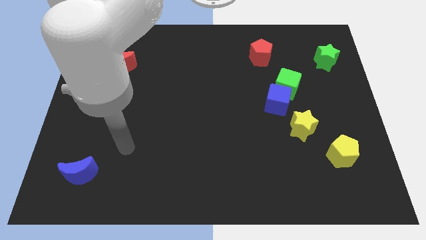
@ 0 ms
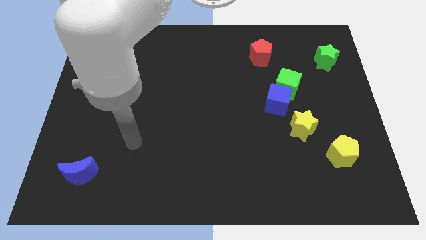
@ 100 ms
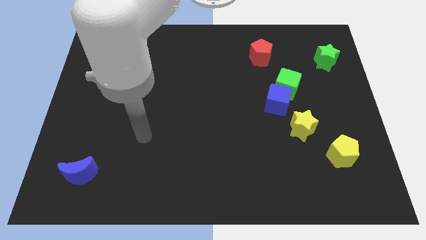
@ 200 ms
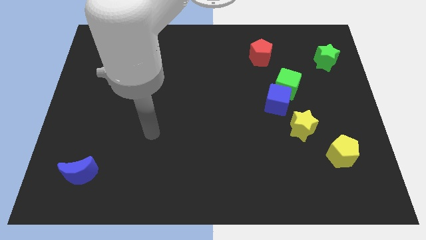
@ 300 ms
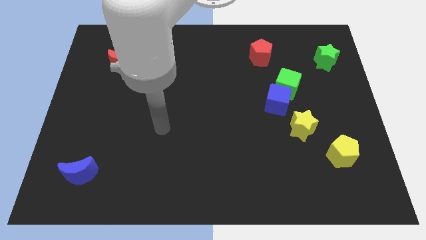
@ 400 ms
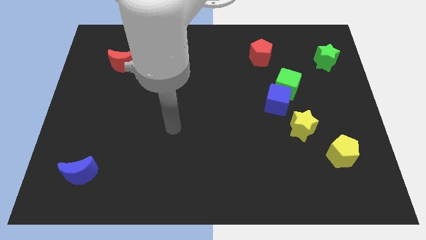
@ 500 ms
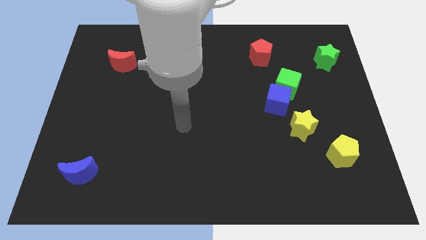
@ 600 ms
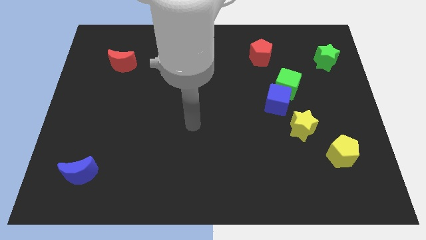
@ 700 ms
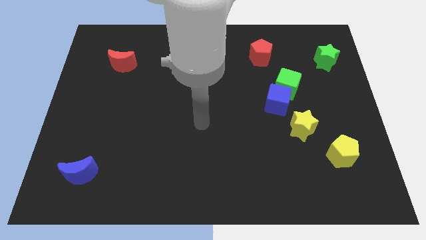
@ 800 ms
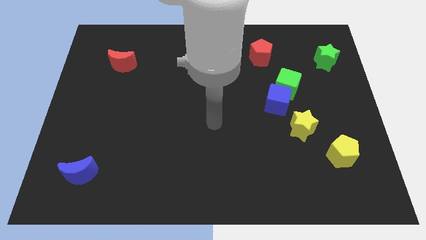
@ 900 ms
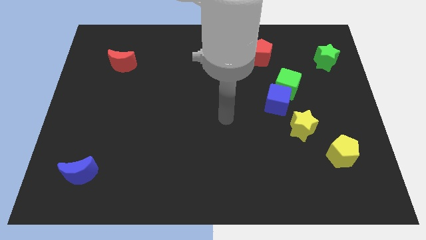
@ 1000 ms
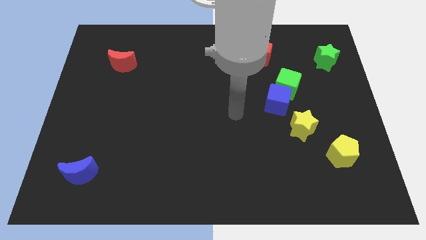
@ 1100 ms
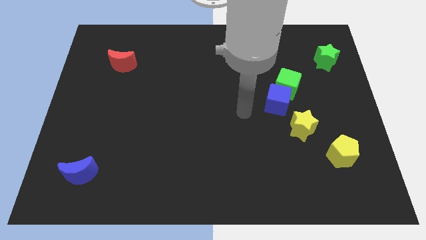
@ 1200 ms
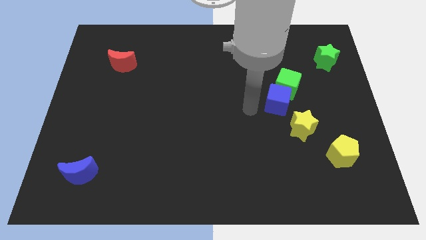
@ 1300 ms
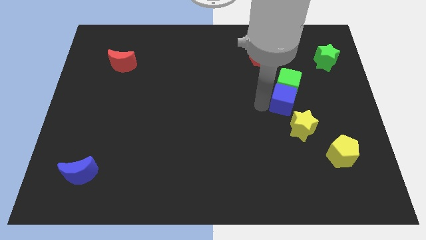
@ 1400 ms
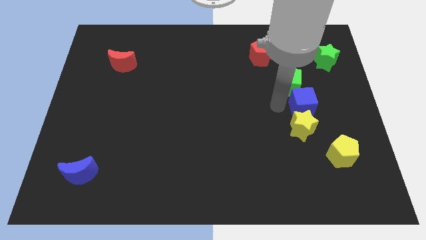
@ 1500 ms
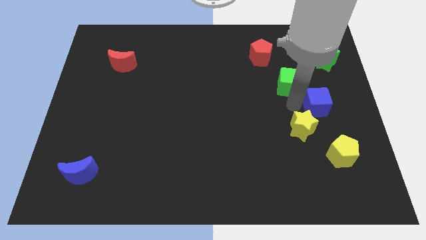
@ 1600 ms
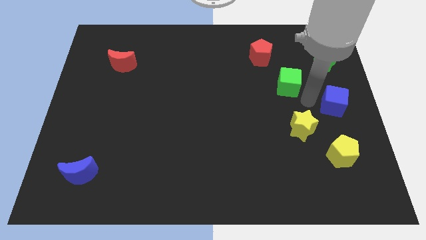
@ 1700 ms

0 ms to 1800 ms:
separate the green cube from the blue cube

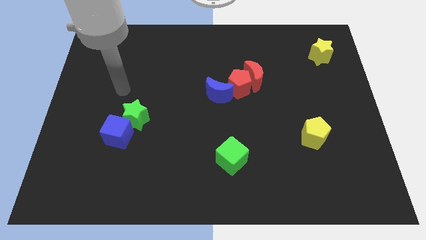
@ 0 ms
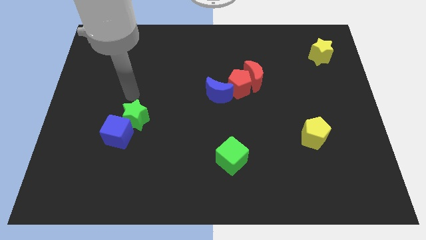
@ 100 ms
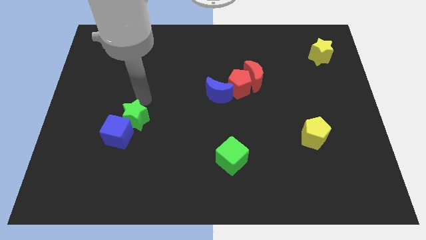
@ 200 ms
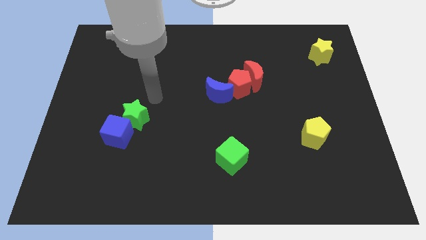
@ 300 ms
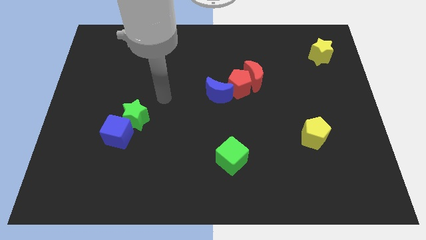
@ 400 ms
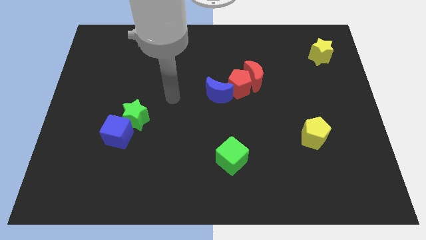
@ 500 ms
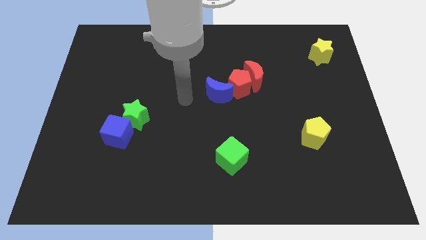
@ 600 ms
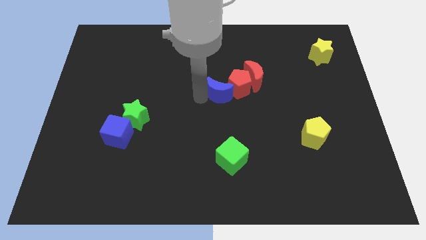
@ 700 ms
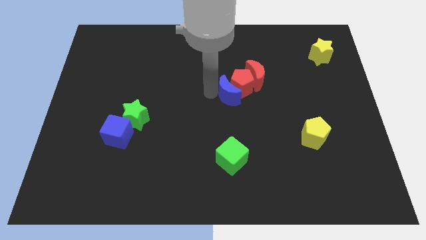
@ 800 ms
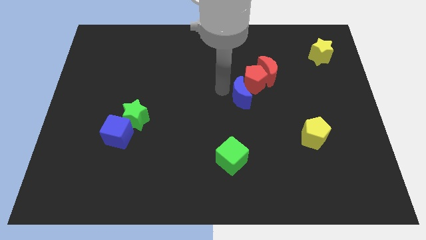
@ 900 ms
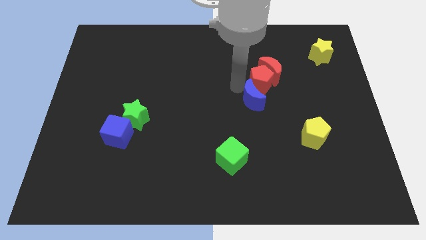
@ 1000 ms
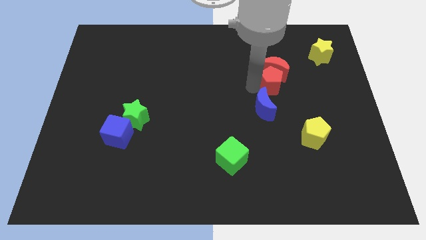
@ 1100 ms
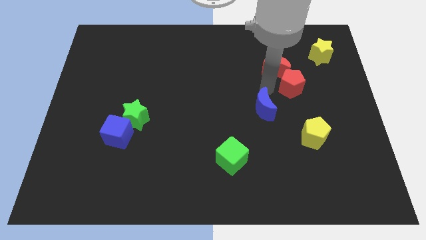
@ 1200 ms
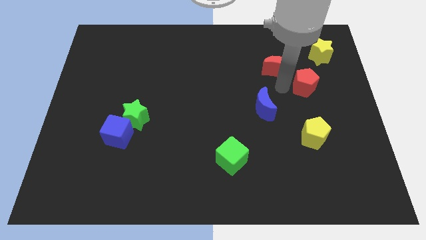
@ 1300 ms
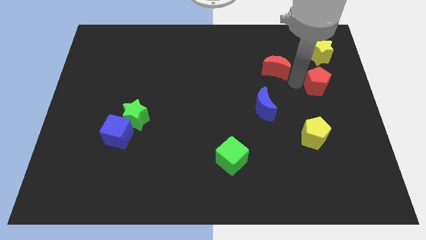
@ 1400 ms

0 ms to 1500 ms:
move the red moon away from the red pentagon

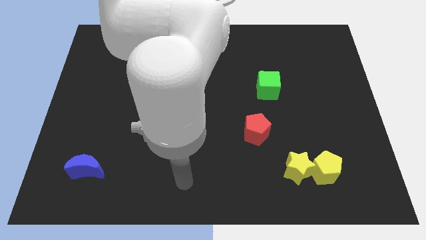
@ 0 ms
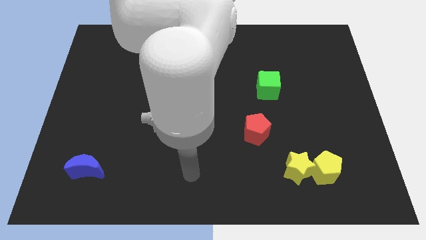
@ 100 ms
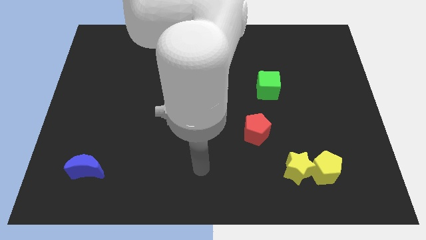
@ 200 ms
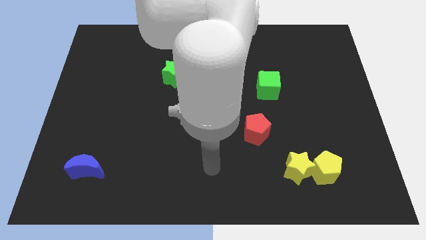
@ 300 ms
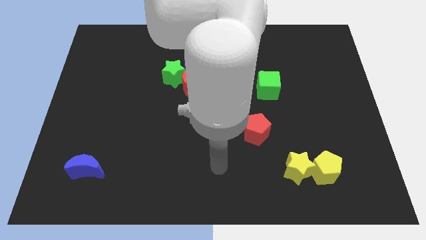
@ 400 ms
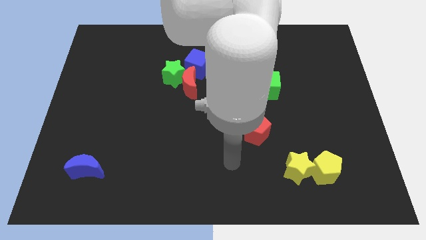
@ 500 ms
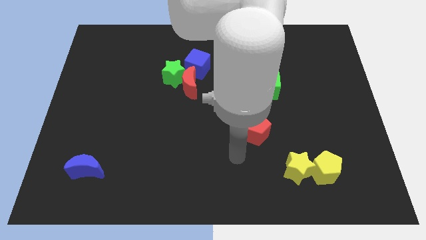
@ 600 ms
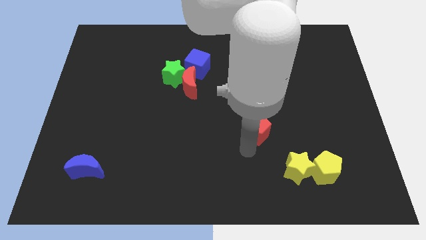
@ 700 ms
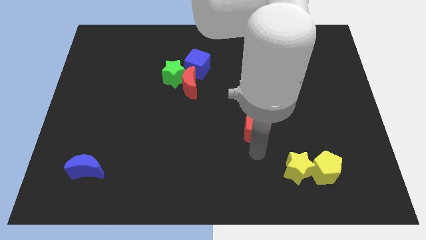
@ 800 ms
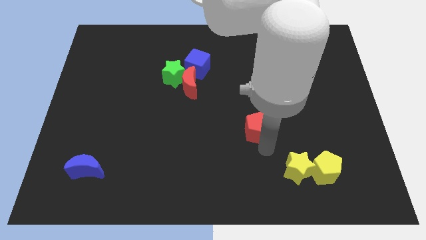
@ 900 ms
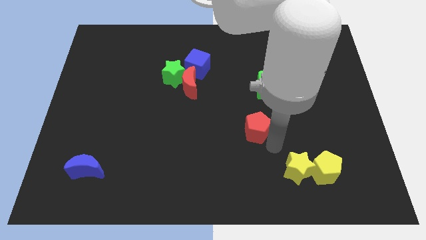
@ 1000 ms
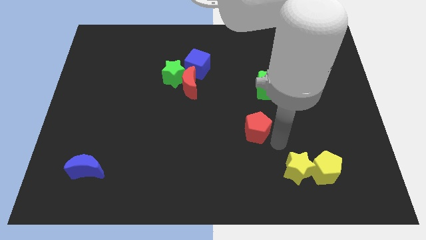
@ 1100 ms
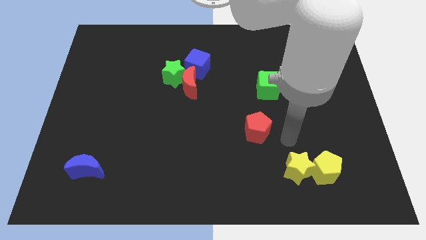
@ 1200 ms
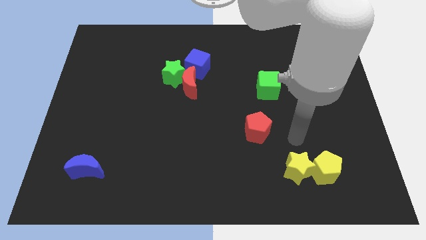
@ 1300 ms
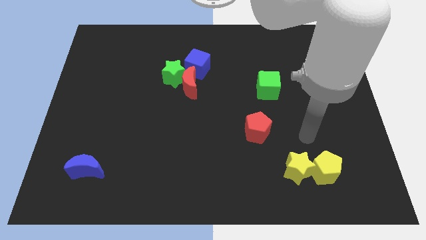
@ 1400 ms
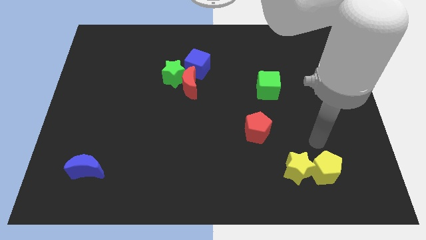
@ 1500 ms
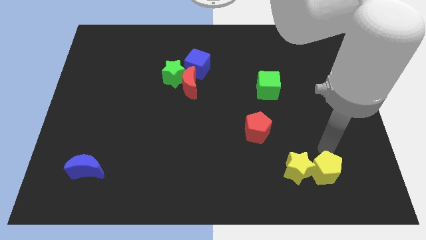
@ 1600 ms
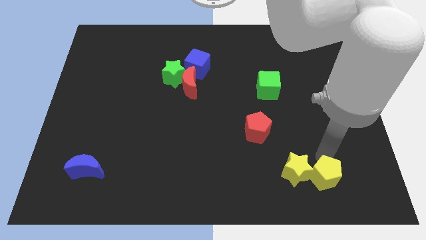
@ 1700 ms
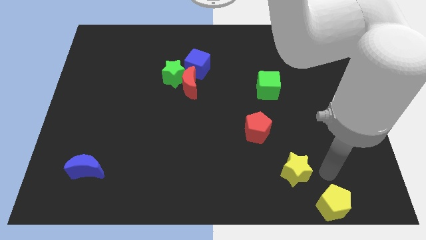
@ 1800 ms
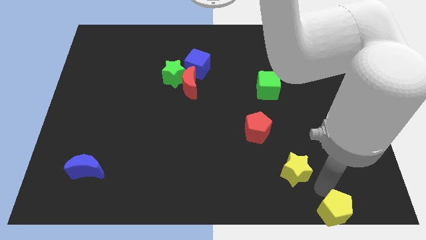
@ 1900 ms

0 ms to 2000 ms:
move the yellow star away from the yellow pentagon

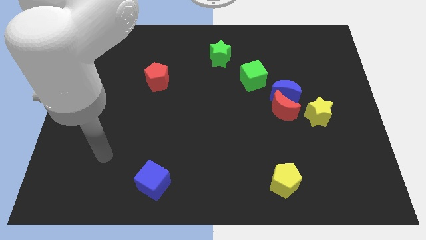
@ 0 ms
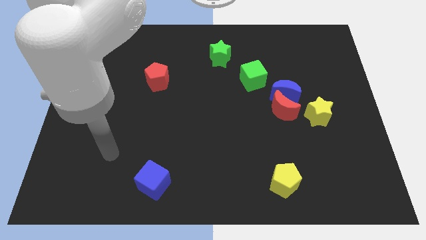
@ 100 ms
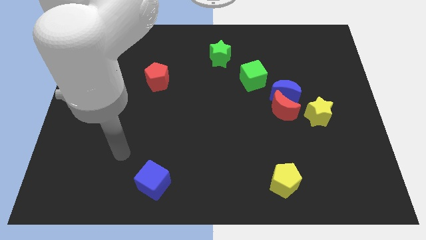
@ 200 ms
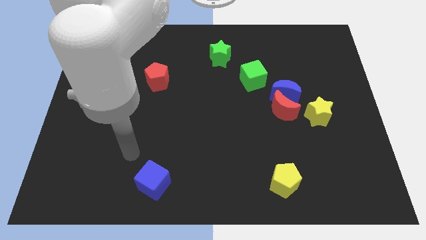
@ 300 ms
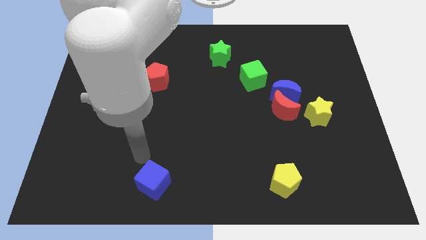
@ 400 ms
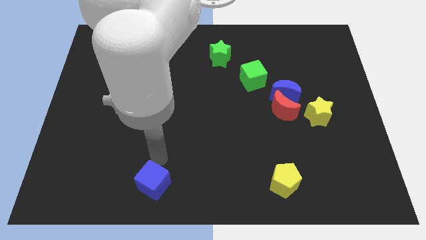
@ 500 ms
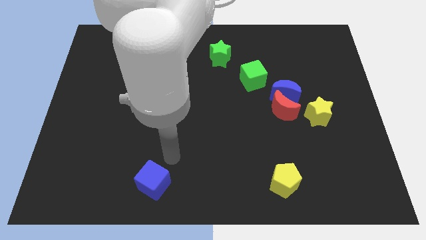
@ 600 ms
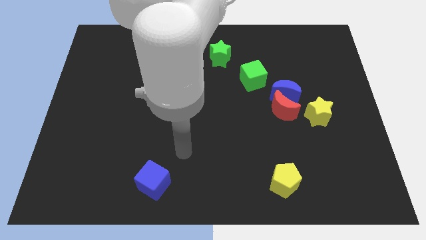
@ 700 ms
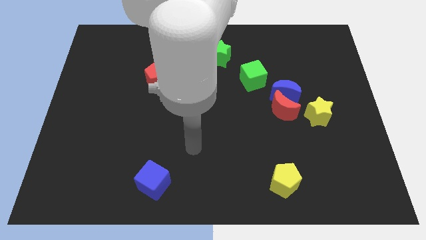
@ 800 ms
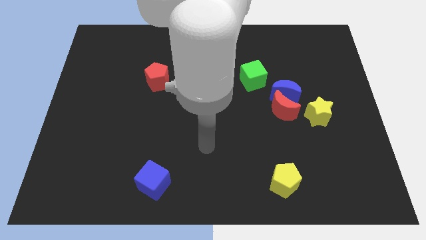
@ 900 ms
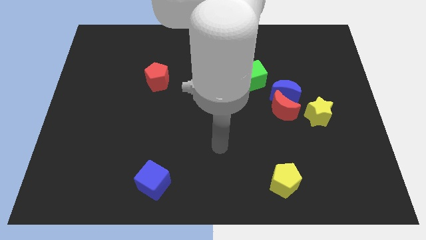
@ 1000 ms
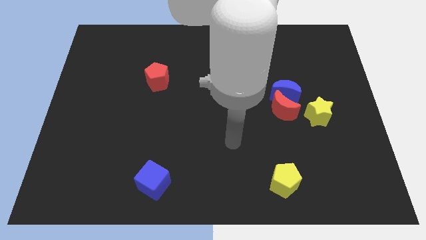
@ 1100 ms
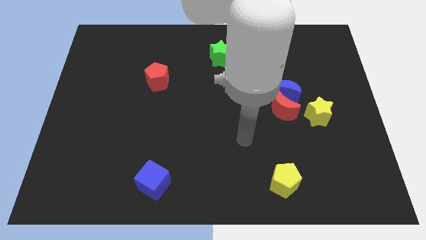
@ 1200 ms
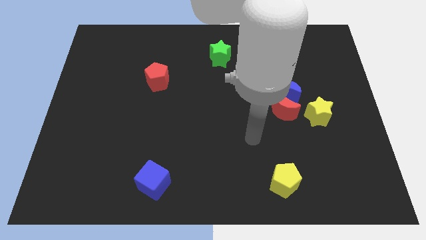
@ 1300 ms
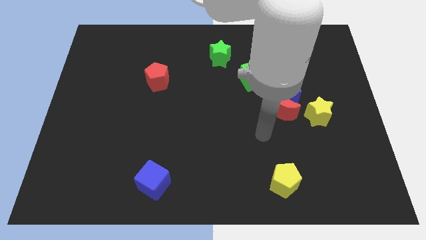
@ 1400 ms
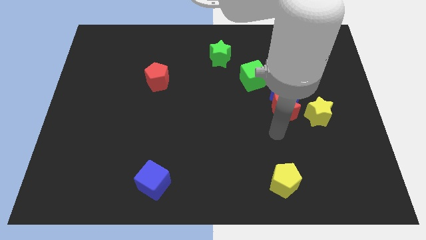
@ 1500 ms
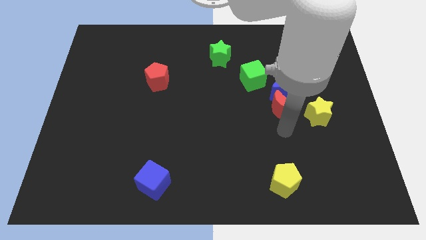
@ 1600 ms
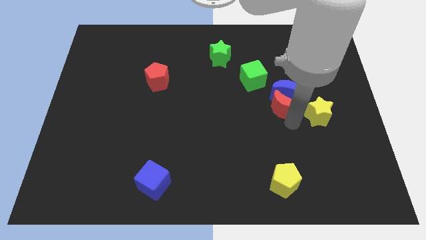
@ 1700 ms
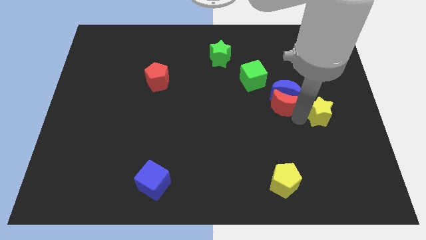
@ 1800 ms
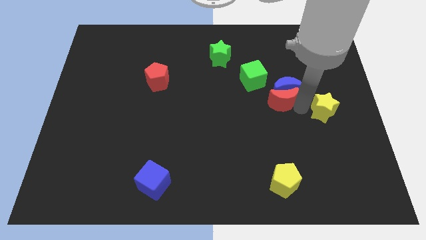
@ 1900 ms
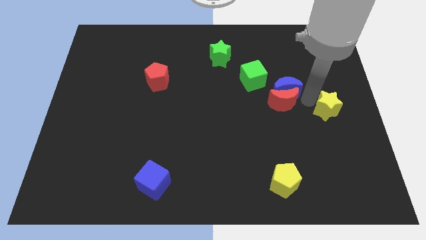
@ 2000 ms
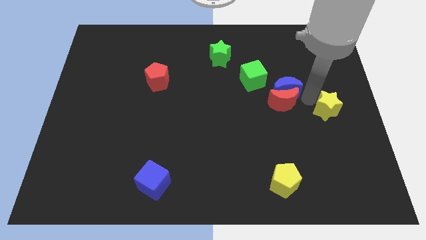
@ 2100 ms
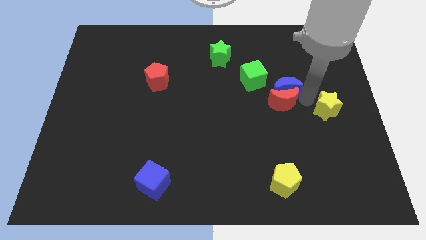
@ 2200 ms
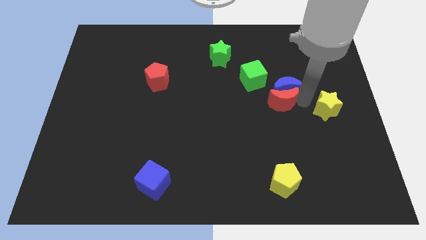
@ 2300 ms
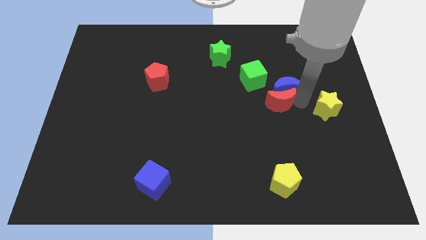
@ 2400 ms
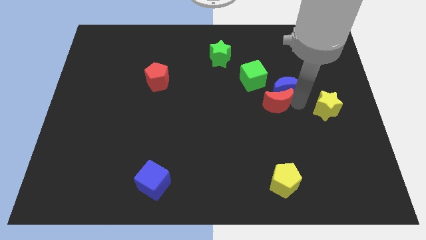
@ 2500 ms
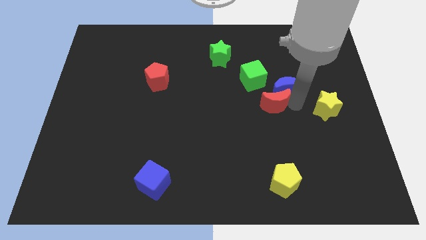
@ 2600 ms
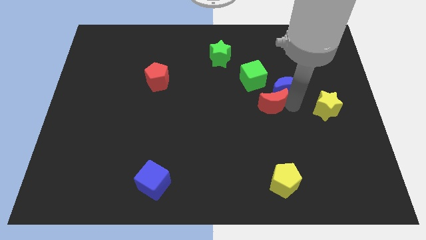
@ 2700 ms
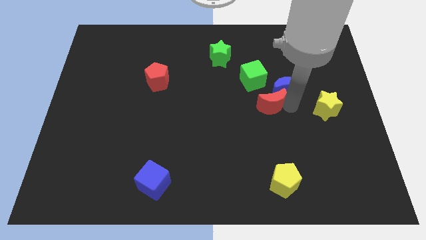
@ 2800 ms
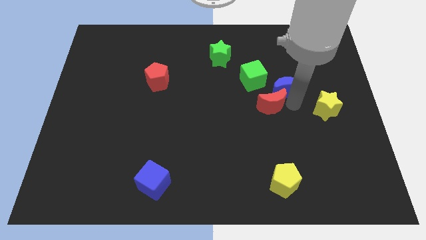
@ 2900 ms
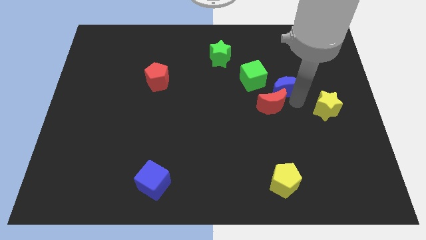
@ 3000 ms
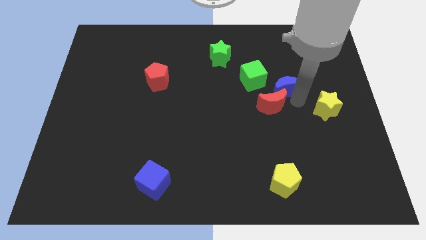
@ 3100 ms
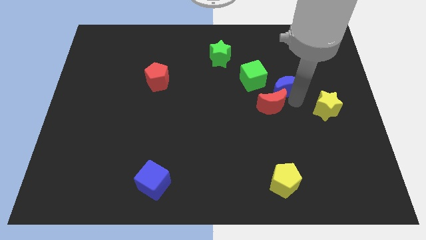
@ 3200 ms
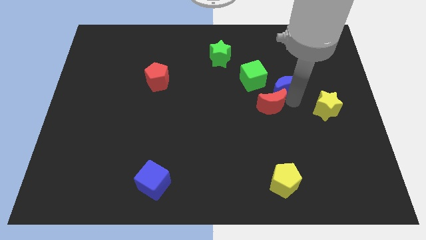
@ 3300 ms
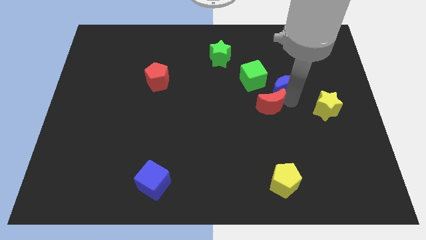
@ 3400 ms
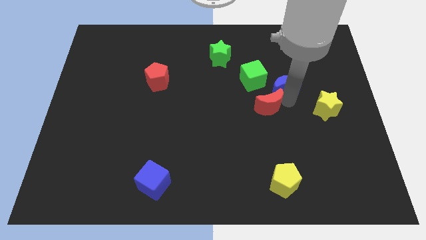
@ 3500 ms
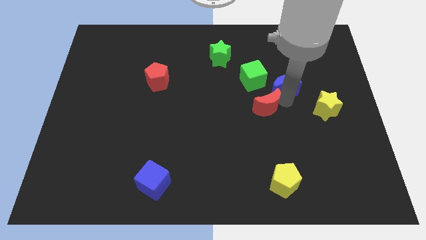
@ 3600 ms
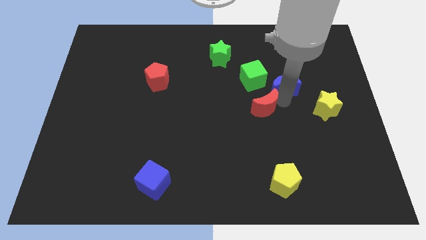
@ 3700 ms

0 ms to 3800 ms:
move the red moon away from the blue moon and yellow star

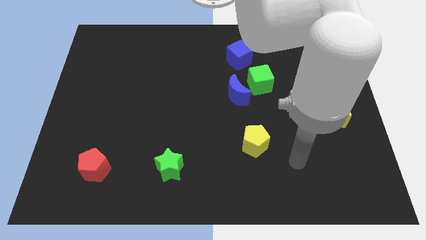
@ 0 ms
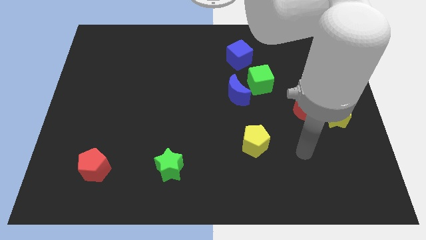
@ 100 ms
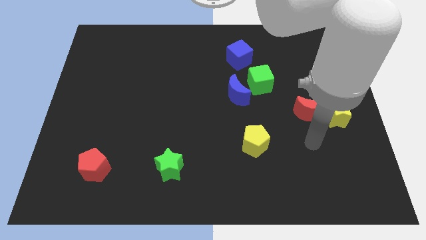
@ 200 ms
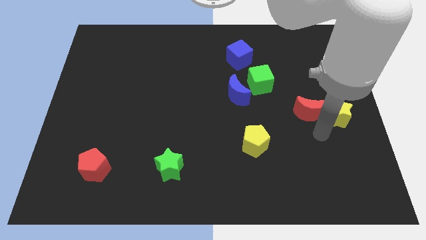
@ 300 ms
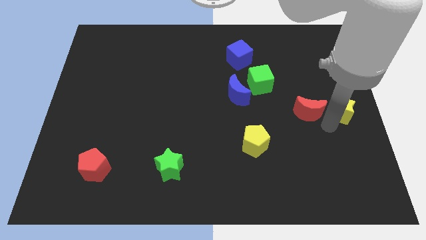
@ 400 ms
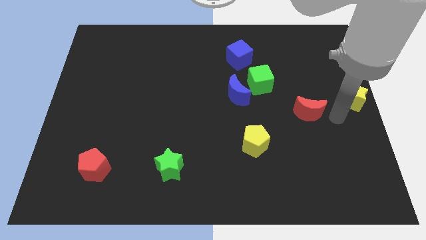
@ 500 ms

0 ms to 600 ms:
move the red moon away from the yellow star
